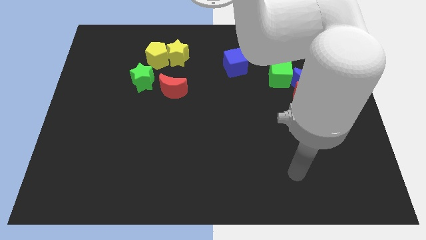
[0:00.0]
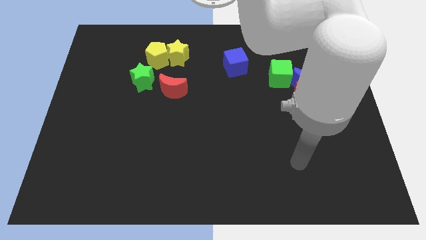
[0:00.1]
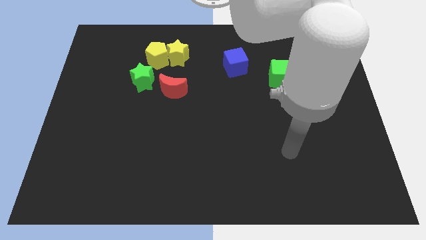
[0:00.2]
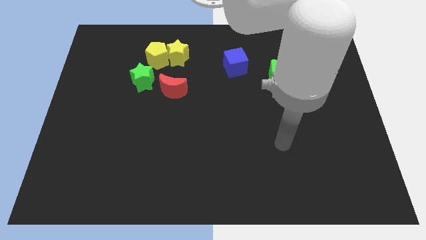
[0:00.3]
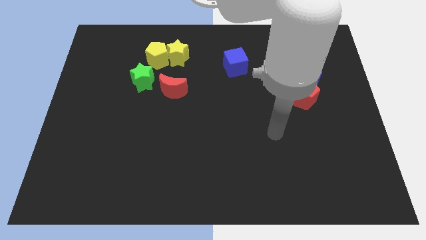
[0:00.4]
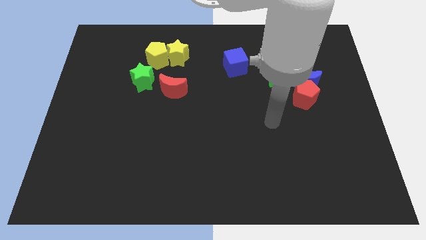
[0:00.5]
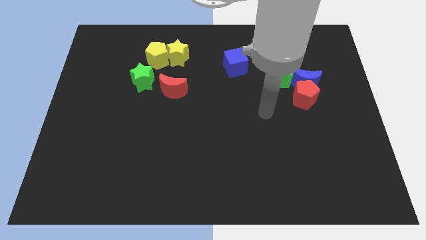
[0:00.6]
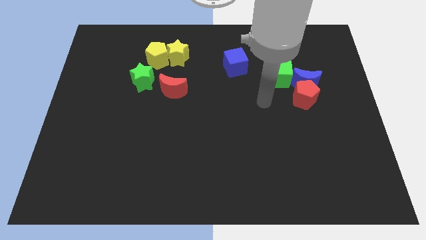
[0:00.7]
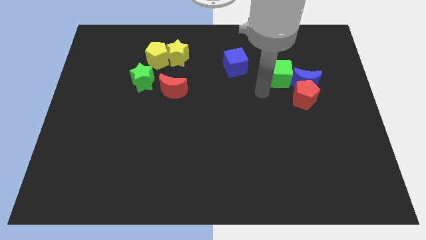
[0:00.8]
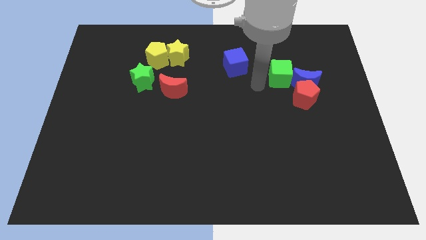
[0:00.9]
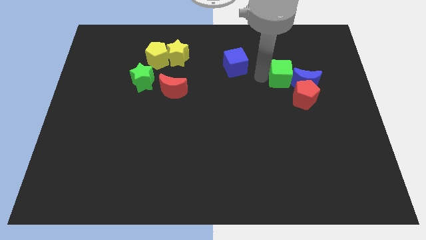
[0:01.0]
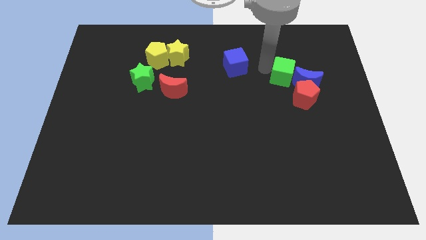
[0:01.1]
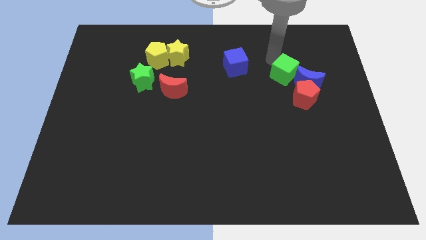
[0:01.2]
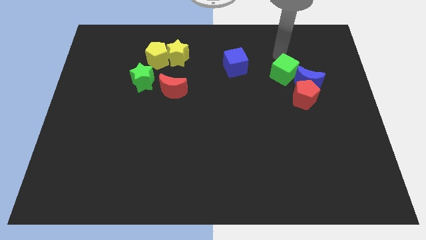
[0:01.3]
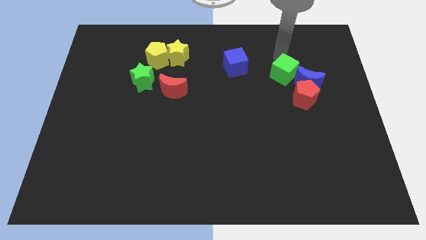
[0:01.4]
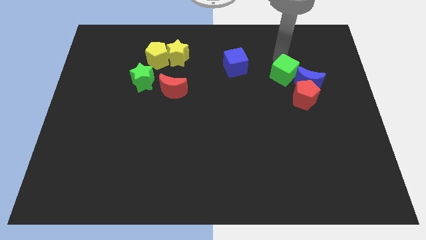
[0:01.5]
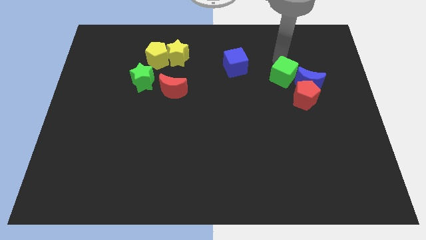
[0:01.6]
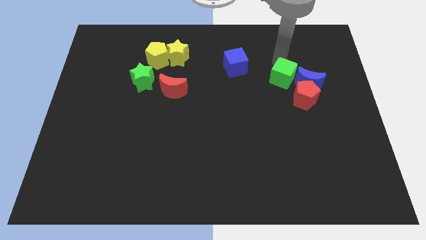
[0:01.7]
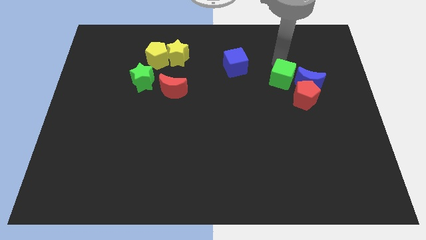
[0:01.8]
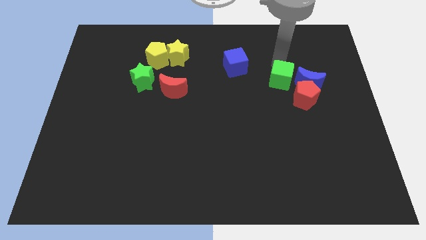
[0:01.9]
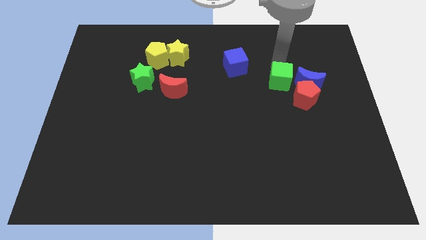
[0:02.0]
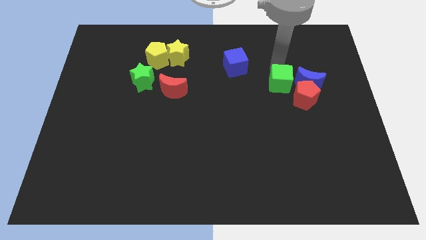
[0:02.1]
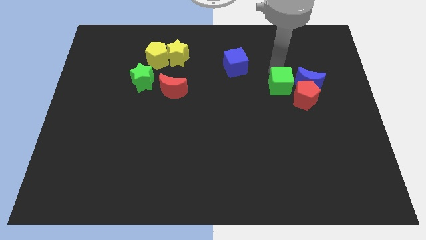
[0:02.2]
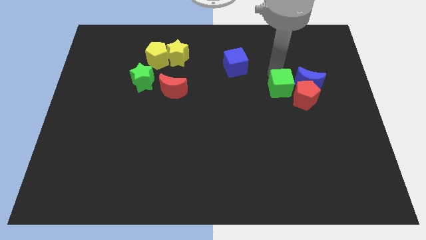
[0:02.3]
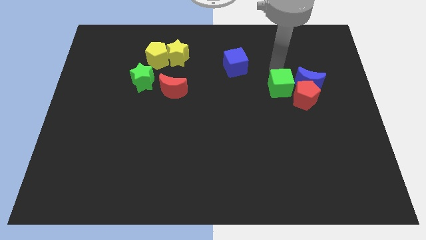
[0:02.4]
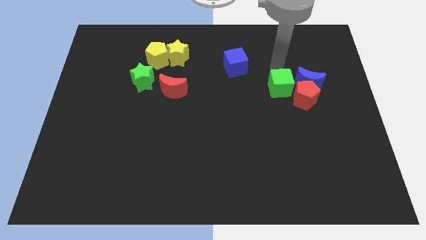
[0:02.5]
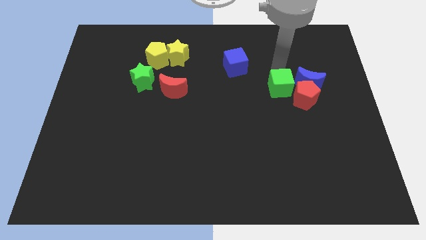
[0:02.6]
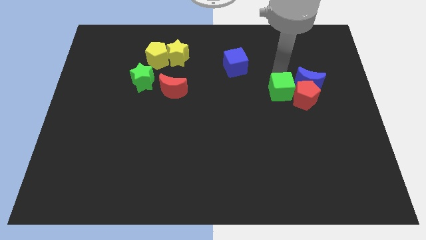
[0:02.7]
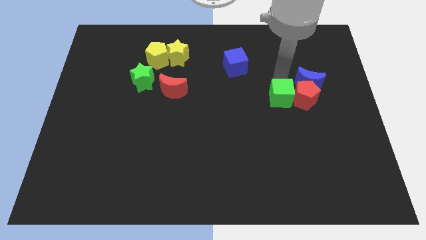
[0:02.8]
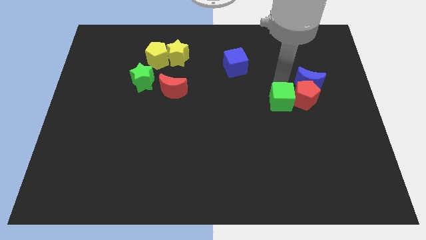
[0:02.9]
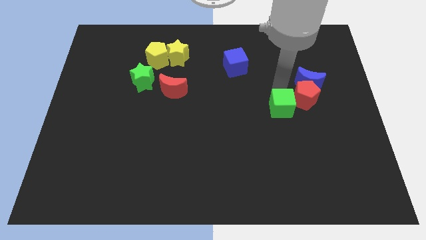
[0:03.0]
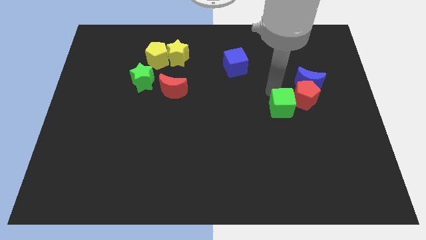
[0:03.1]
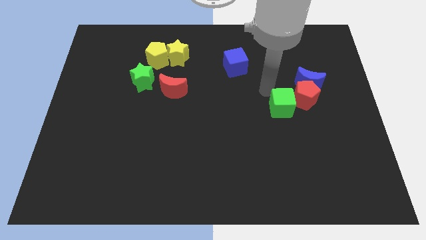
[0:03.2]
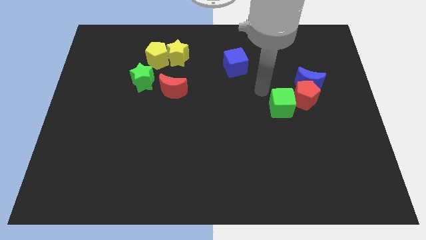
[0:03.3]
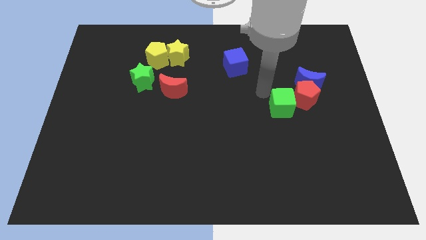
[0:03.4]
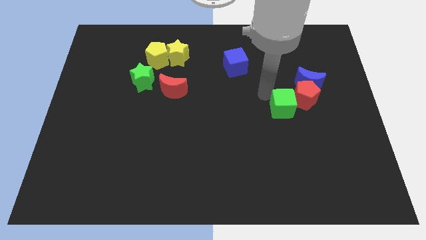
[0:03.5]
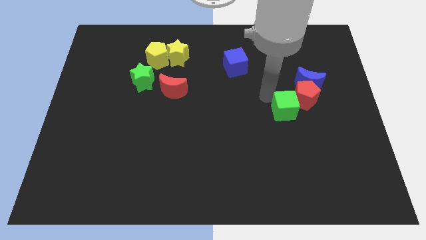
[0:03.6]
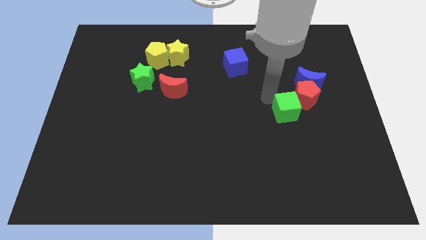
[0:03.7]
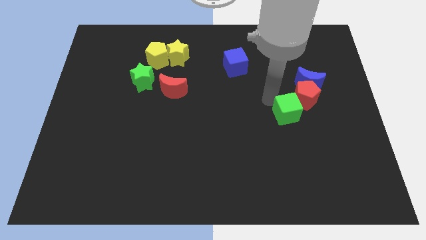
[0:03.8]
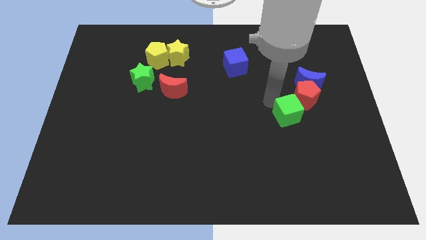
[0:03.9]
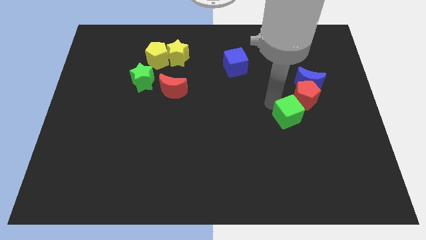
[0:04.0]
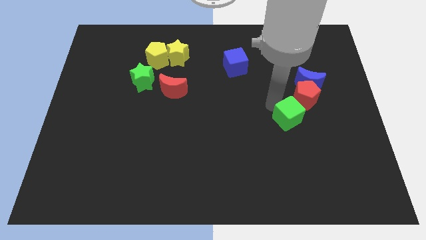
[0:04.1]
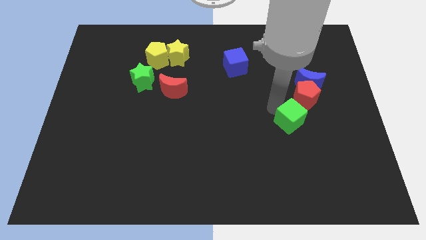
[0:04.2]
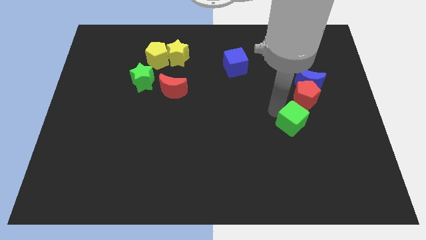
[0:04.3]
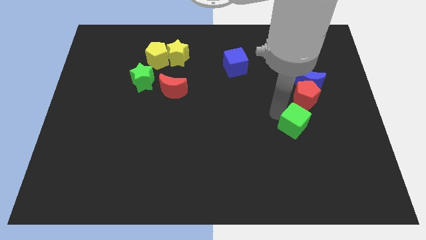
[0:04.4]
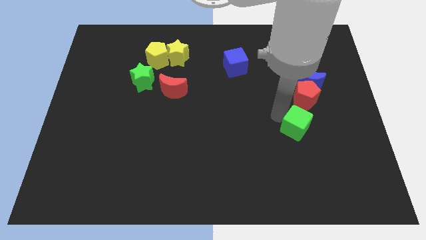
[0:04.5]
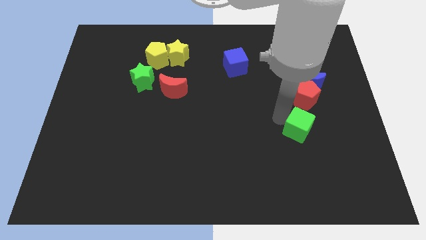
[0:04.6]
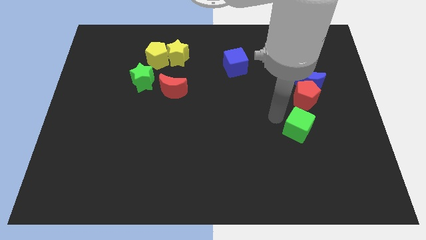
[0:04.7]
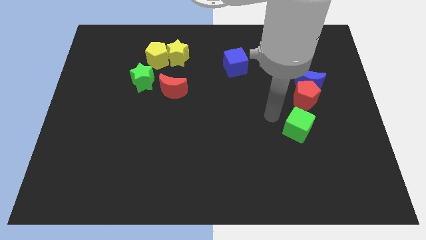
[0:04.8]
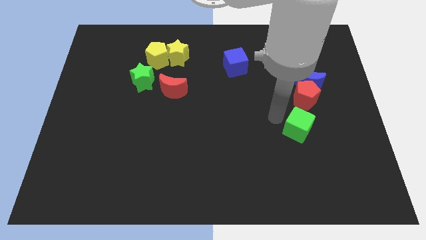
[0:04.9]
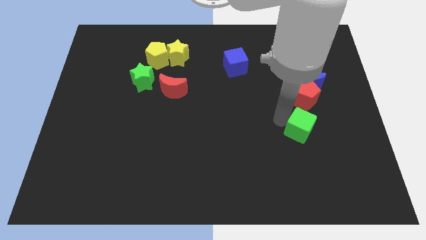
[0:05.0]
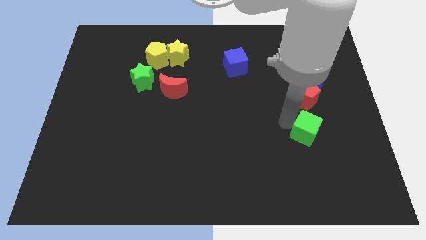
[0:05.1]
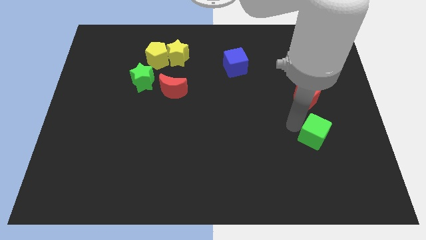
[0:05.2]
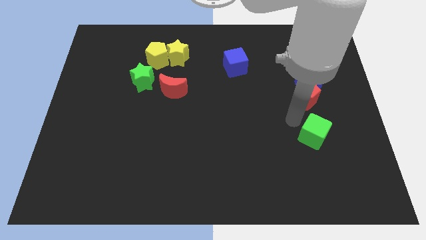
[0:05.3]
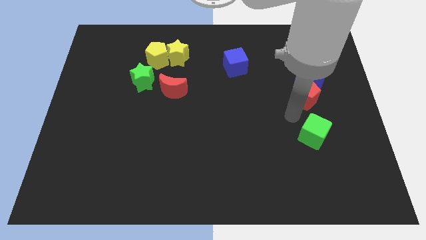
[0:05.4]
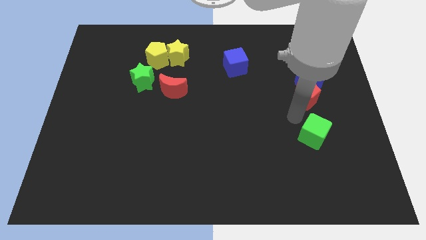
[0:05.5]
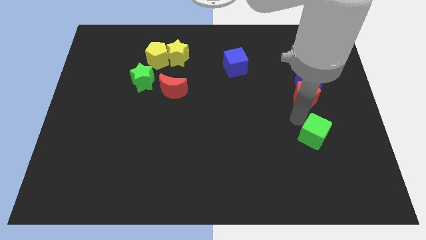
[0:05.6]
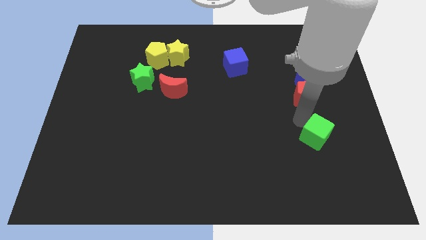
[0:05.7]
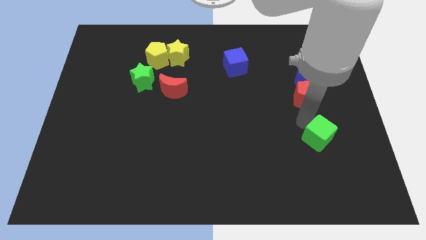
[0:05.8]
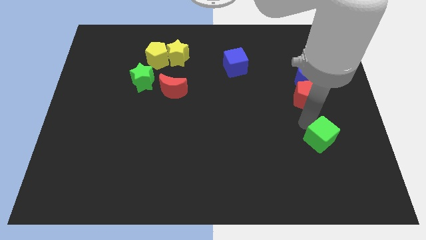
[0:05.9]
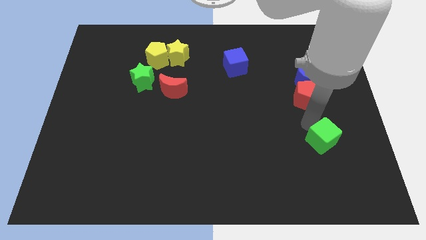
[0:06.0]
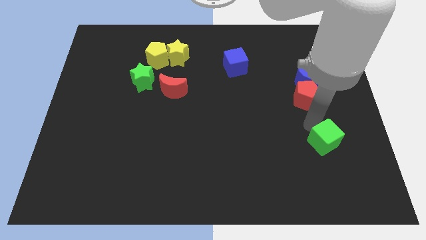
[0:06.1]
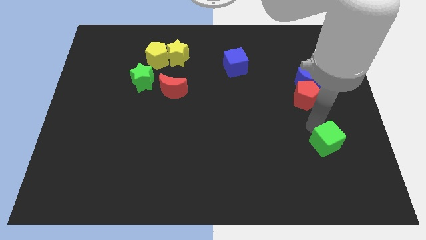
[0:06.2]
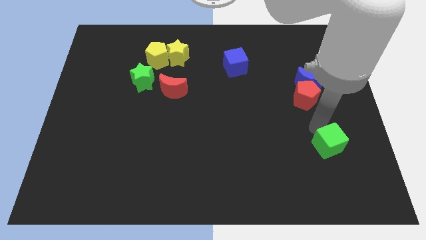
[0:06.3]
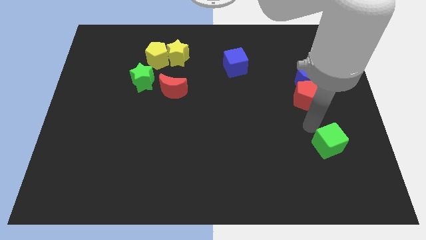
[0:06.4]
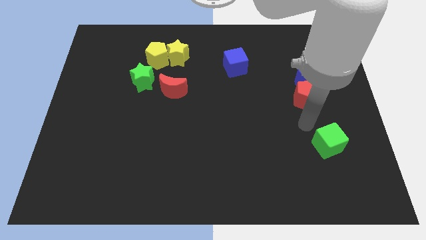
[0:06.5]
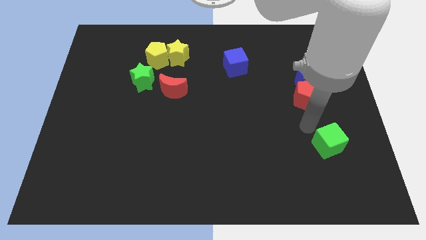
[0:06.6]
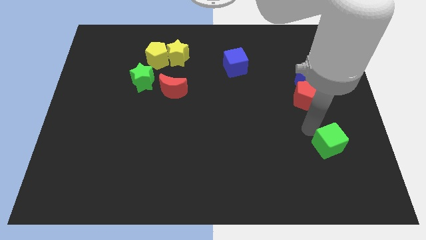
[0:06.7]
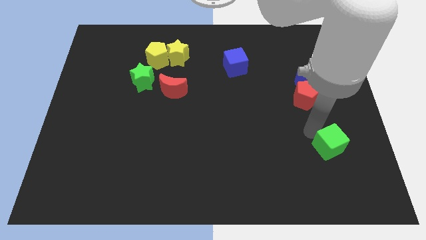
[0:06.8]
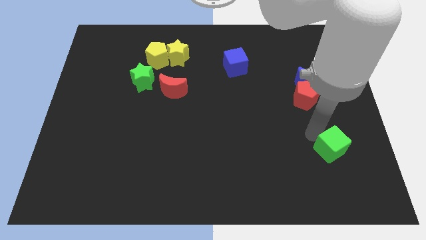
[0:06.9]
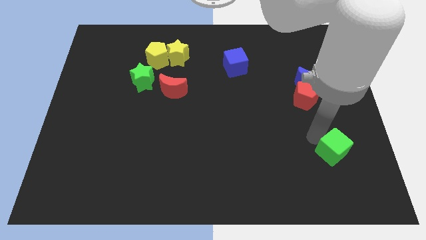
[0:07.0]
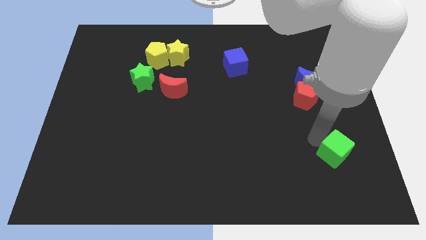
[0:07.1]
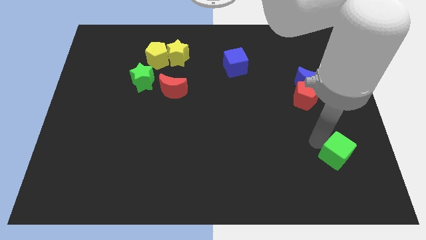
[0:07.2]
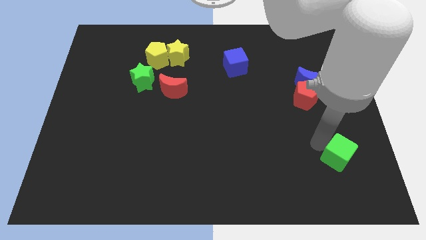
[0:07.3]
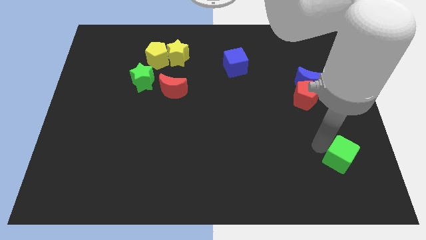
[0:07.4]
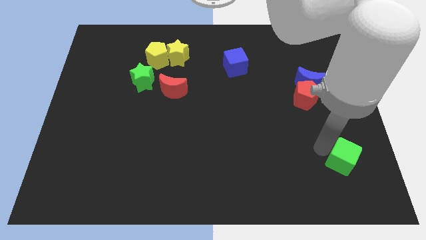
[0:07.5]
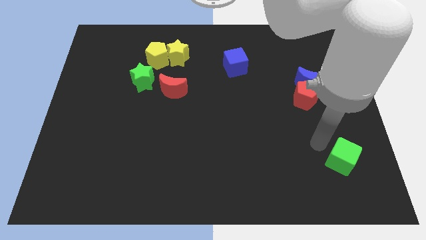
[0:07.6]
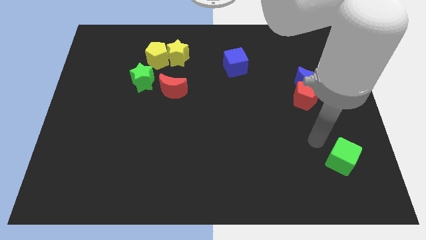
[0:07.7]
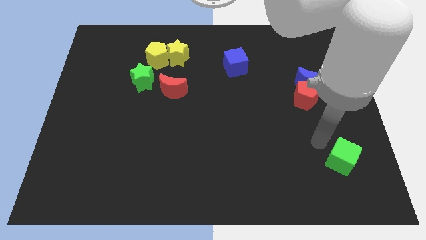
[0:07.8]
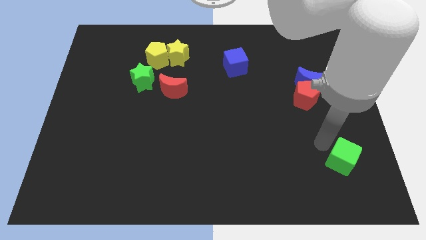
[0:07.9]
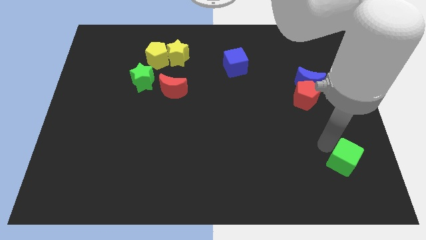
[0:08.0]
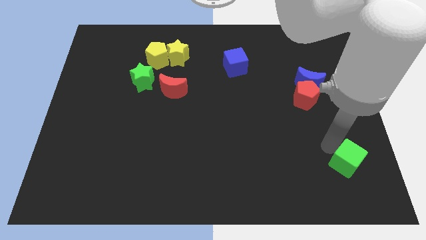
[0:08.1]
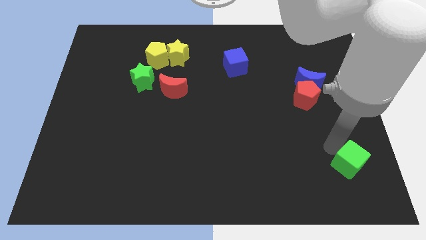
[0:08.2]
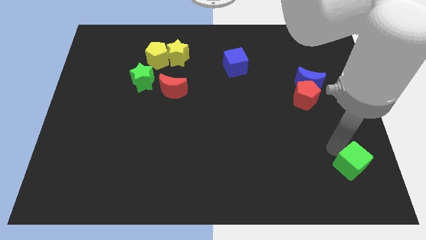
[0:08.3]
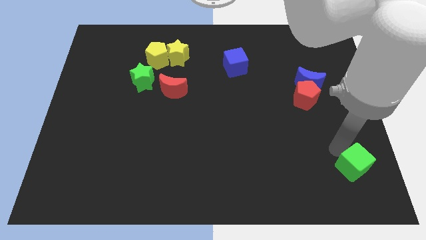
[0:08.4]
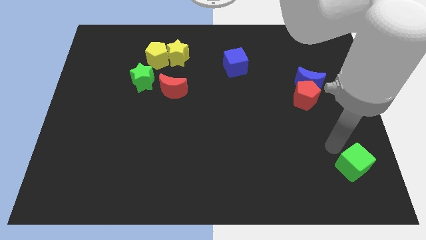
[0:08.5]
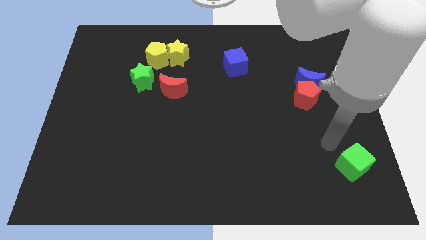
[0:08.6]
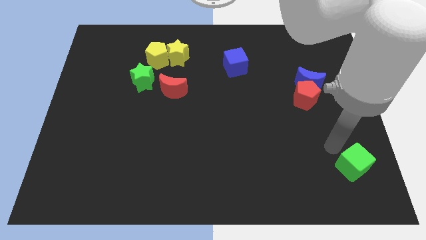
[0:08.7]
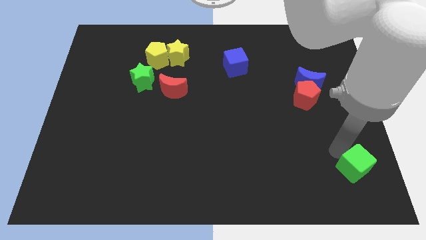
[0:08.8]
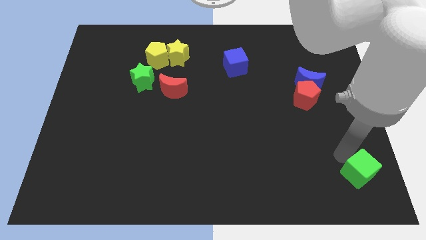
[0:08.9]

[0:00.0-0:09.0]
slide the green cube to the bottom right of the board
